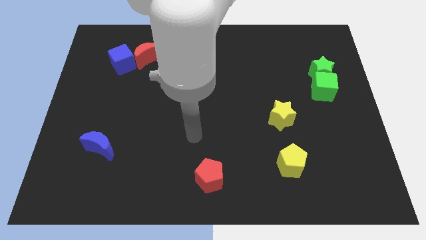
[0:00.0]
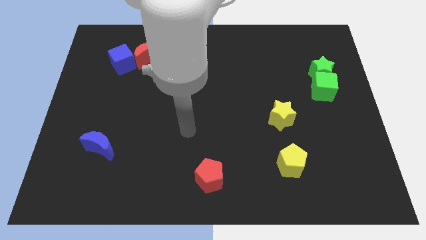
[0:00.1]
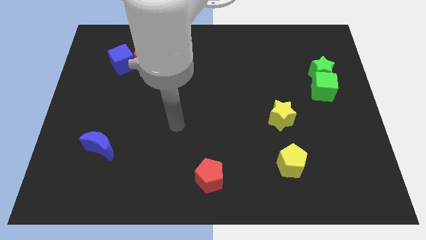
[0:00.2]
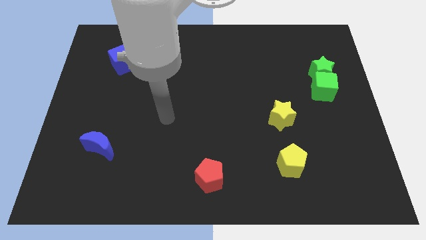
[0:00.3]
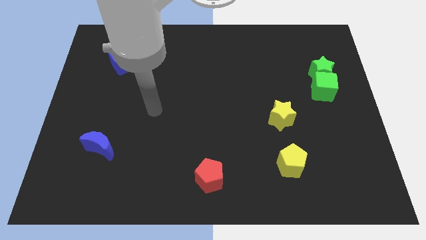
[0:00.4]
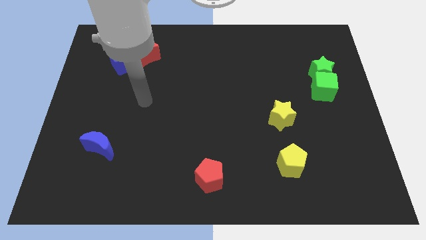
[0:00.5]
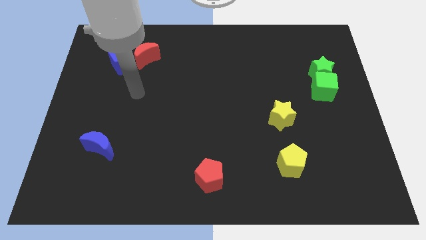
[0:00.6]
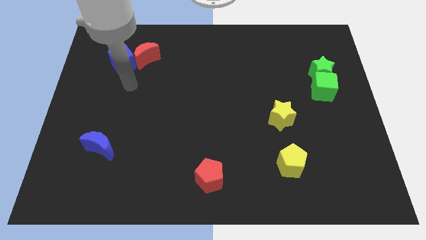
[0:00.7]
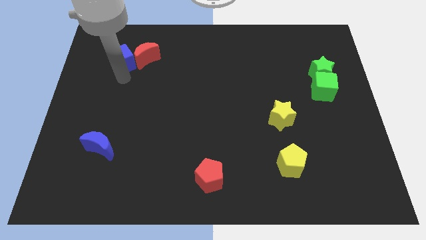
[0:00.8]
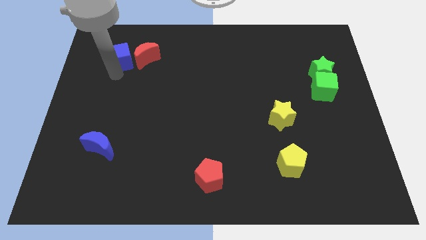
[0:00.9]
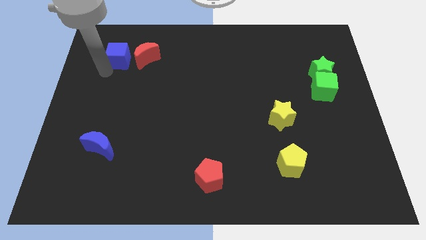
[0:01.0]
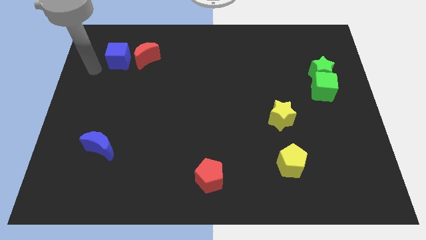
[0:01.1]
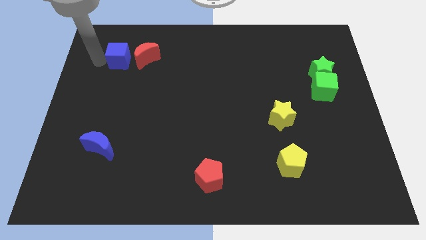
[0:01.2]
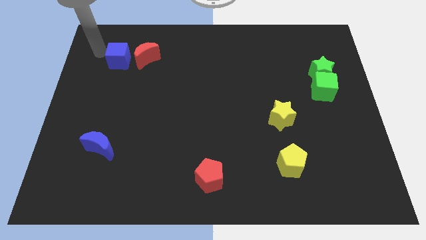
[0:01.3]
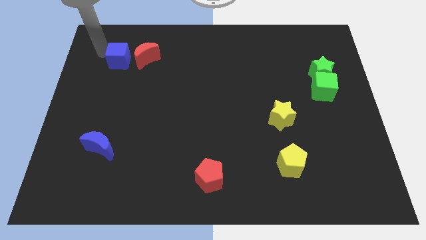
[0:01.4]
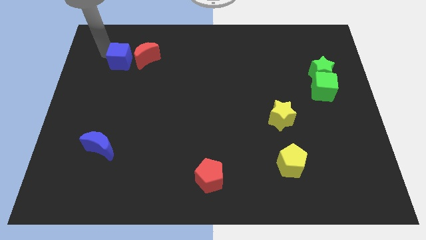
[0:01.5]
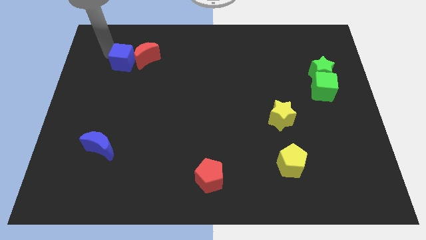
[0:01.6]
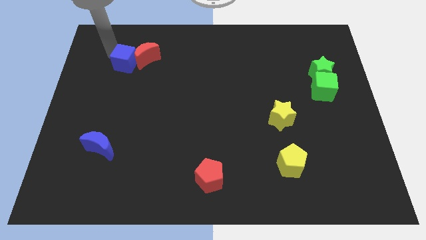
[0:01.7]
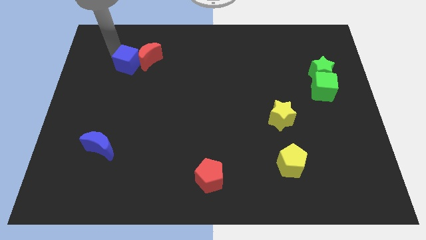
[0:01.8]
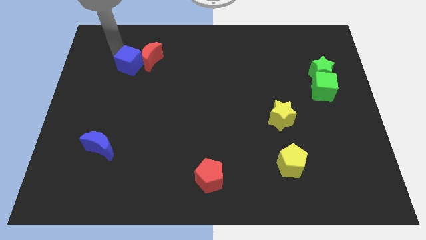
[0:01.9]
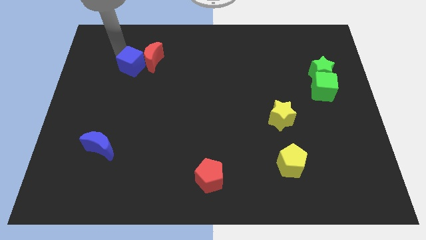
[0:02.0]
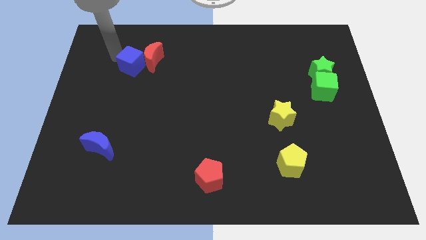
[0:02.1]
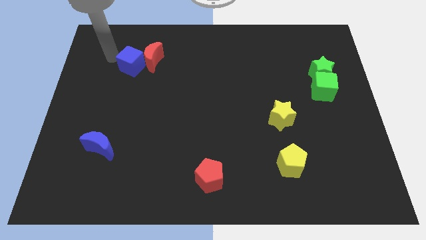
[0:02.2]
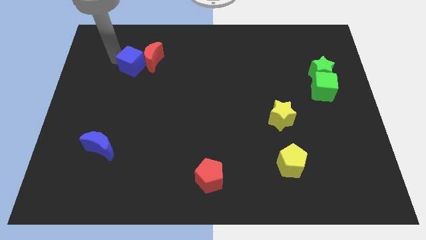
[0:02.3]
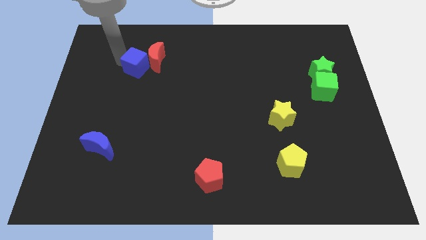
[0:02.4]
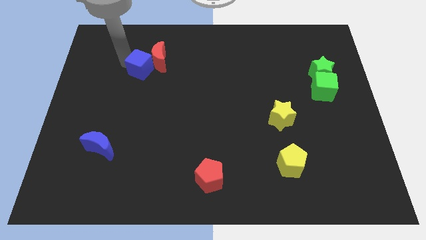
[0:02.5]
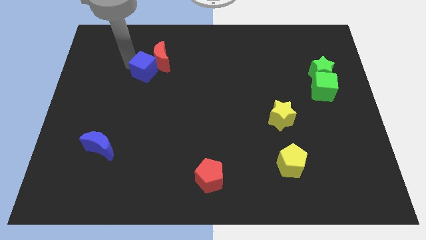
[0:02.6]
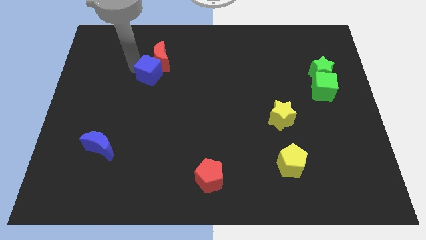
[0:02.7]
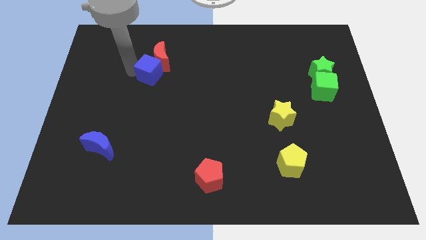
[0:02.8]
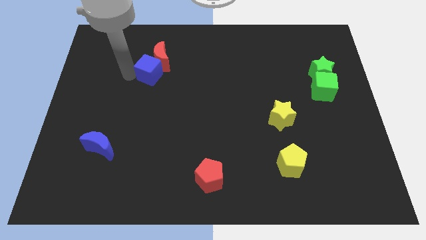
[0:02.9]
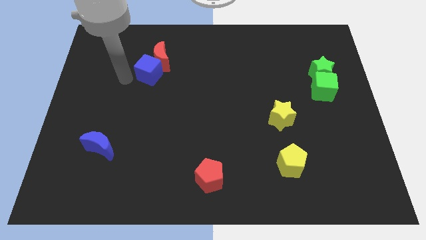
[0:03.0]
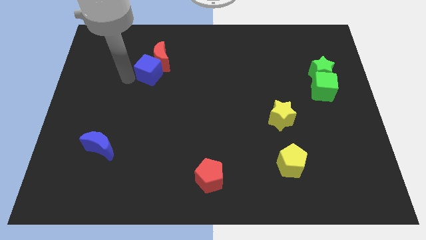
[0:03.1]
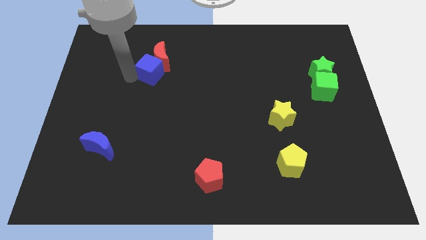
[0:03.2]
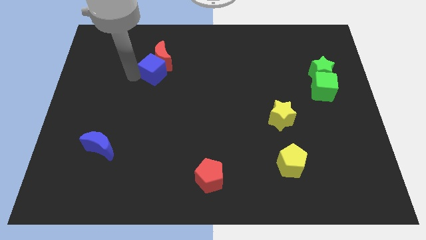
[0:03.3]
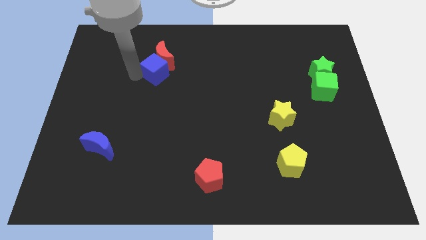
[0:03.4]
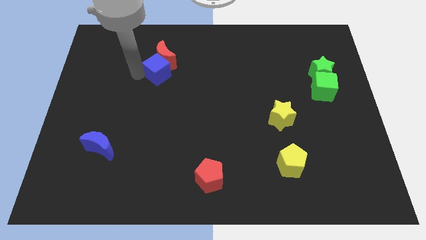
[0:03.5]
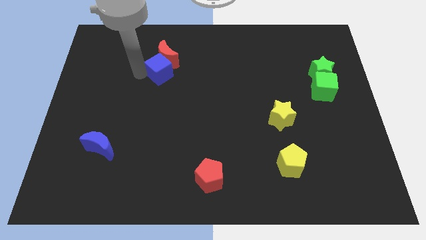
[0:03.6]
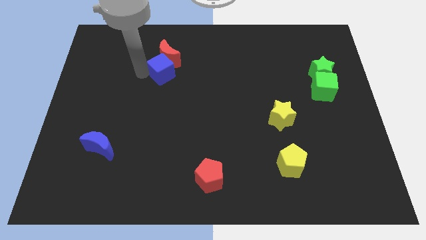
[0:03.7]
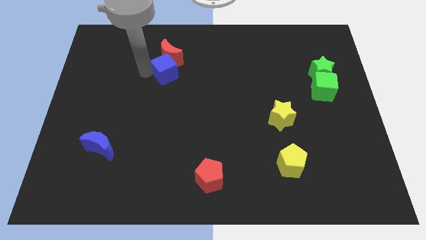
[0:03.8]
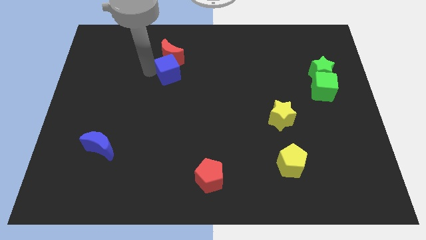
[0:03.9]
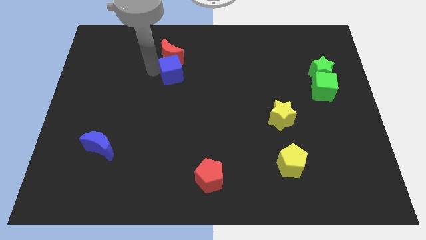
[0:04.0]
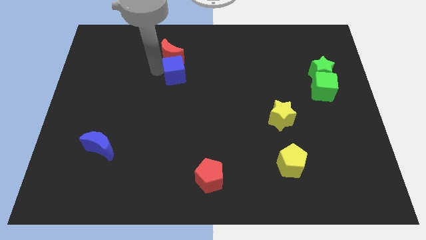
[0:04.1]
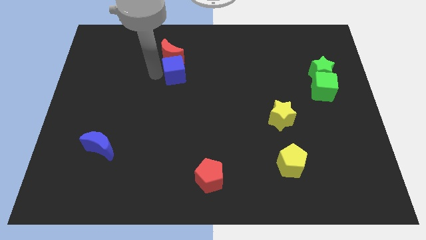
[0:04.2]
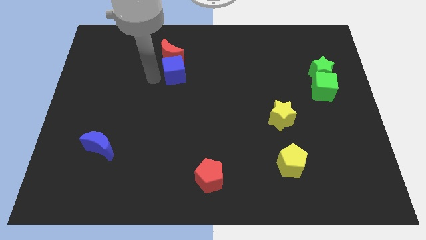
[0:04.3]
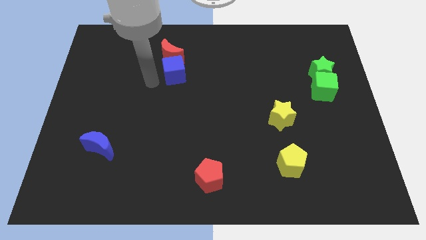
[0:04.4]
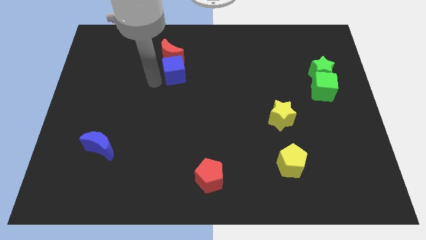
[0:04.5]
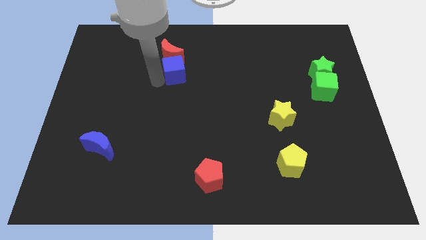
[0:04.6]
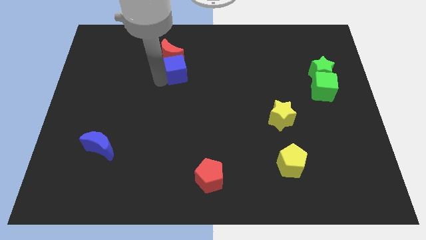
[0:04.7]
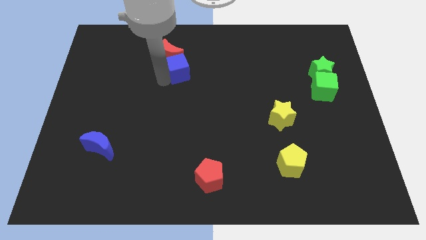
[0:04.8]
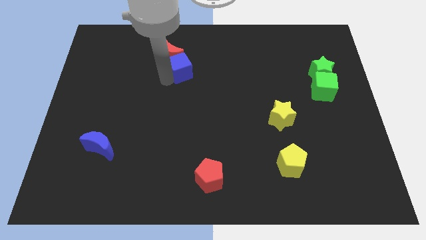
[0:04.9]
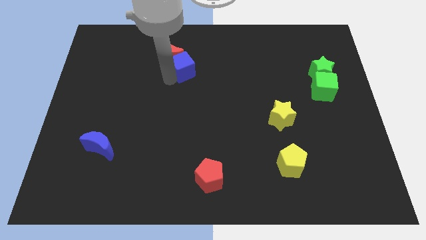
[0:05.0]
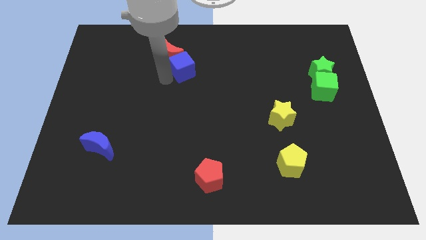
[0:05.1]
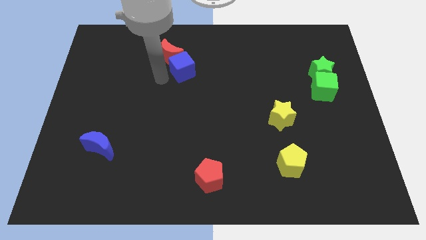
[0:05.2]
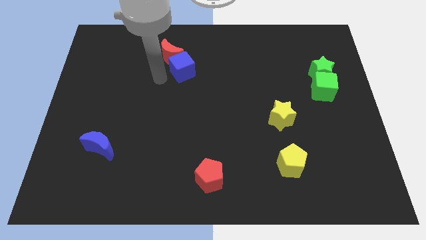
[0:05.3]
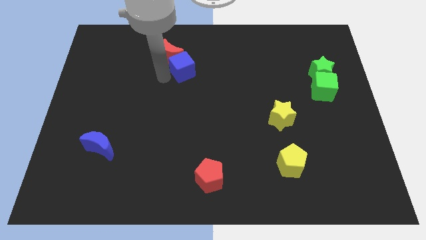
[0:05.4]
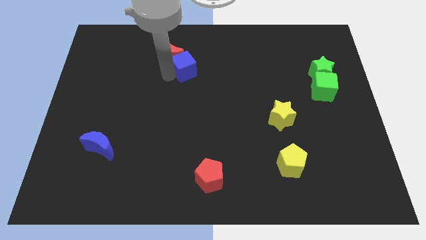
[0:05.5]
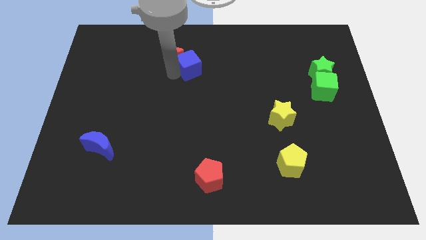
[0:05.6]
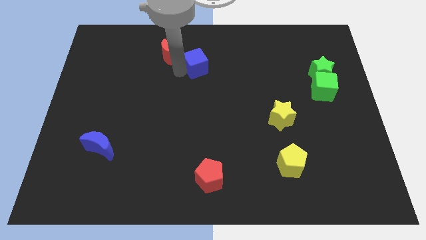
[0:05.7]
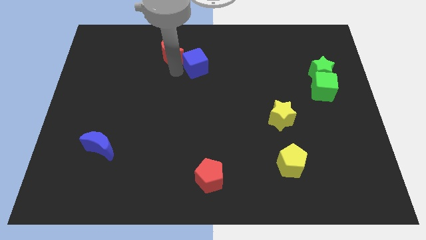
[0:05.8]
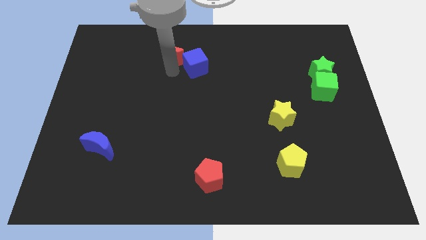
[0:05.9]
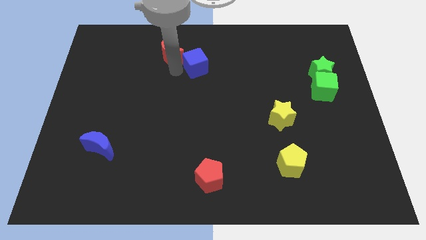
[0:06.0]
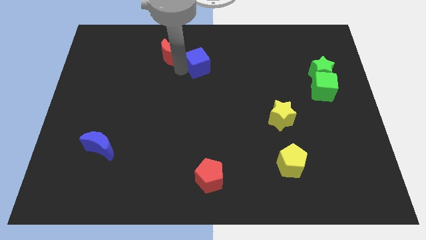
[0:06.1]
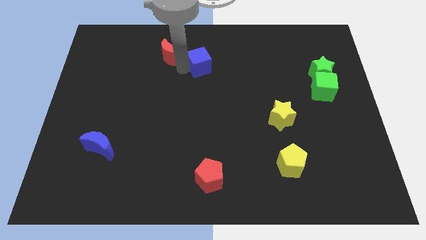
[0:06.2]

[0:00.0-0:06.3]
move the blue cube to the right

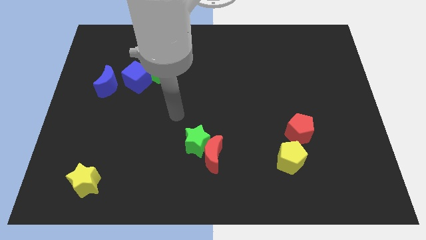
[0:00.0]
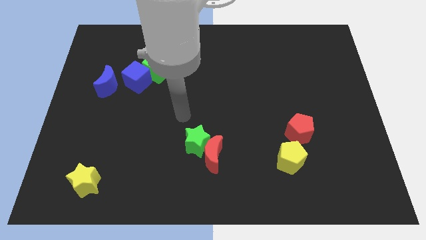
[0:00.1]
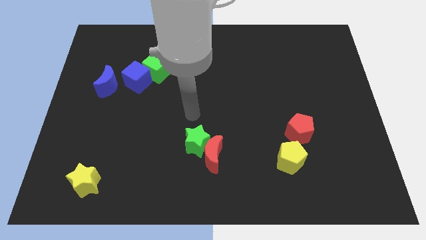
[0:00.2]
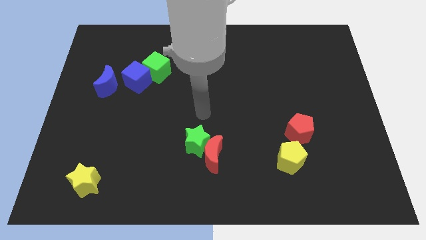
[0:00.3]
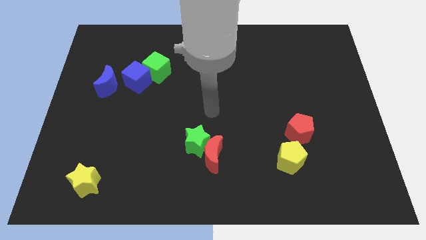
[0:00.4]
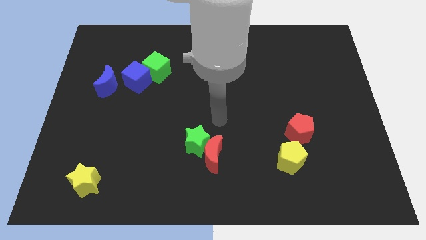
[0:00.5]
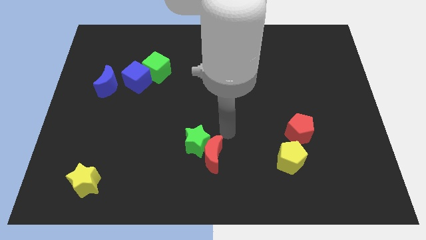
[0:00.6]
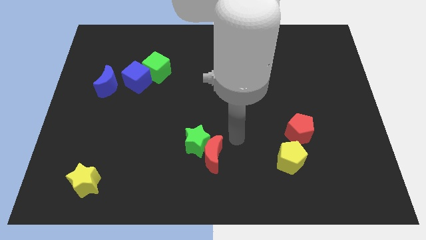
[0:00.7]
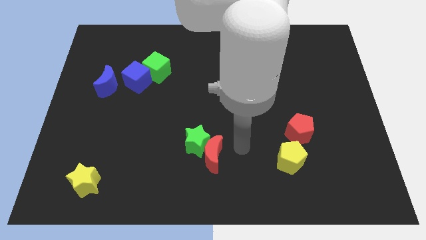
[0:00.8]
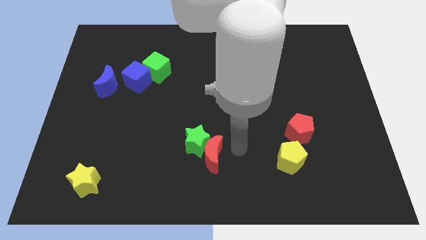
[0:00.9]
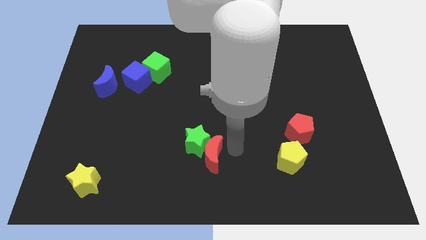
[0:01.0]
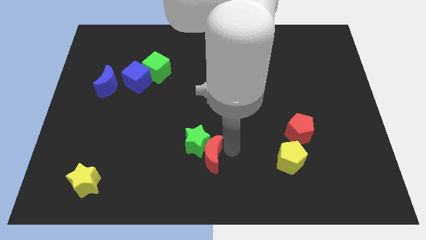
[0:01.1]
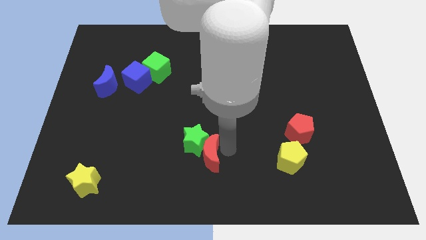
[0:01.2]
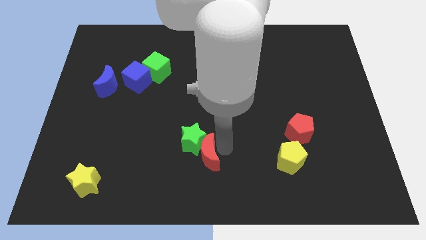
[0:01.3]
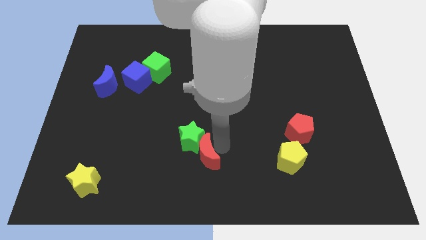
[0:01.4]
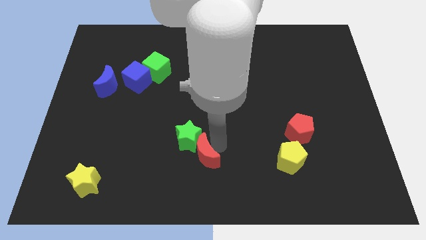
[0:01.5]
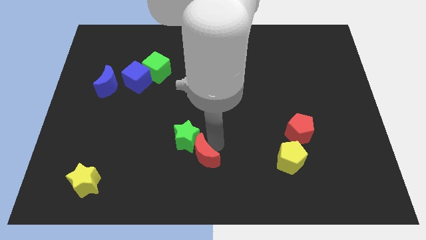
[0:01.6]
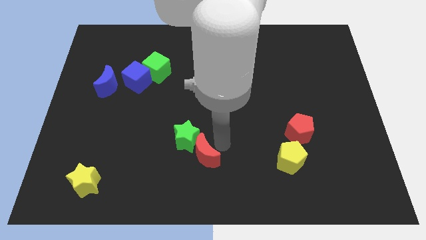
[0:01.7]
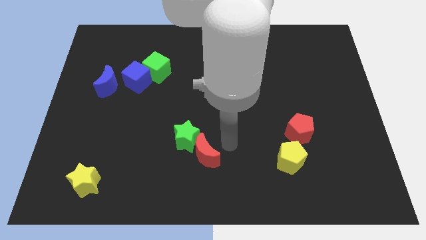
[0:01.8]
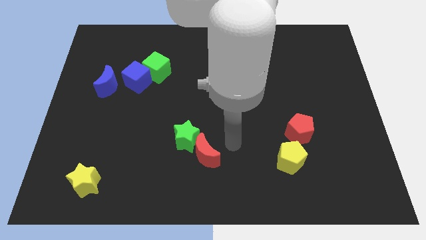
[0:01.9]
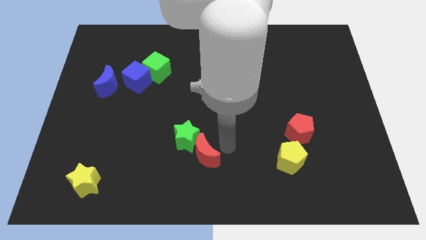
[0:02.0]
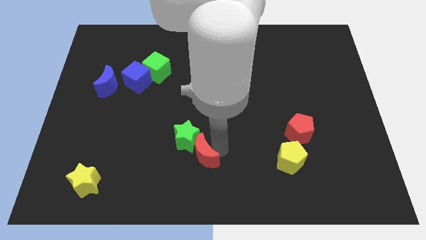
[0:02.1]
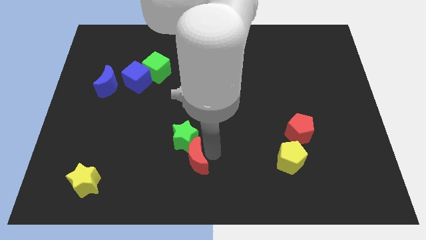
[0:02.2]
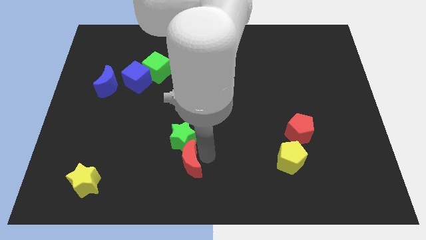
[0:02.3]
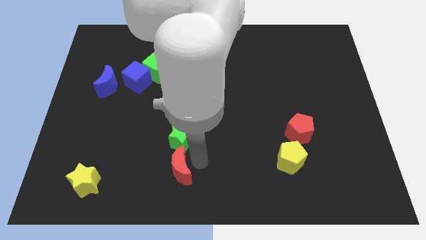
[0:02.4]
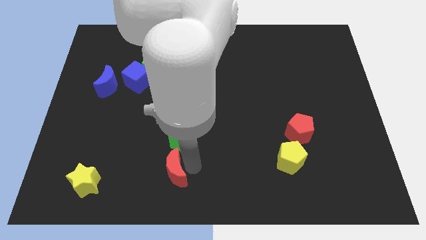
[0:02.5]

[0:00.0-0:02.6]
push the red moon a bit to the left
